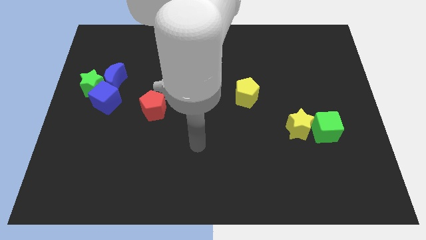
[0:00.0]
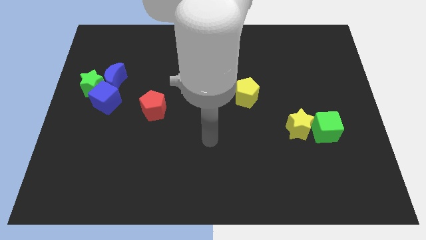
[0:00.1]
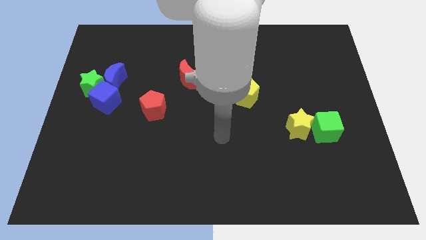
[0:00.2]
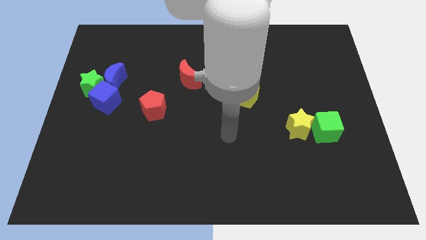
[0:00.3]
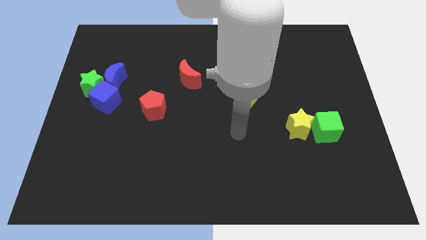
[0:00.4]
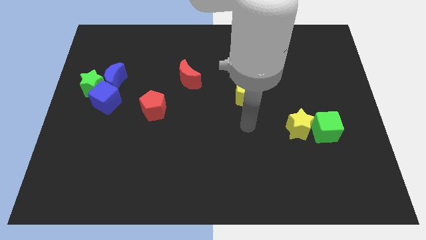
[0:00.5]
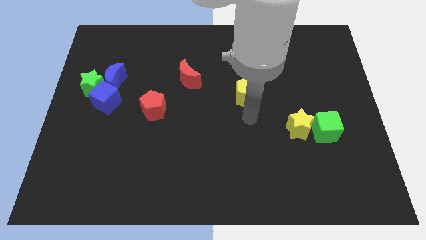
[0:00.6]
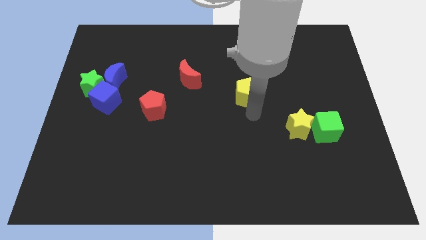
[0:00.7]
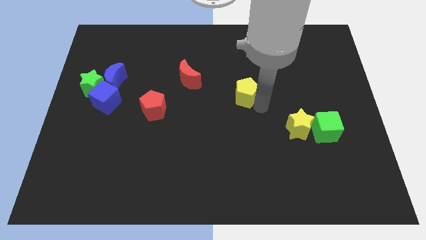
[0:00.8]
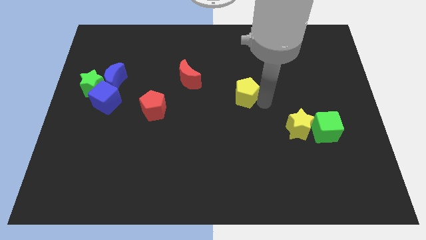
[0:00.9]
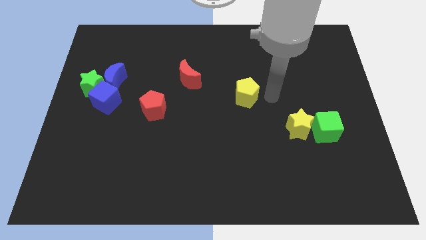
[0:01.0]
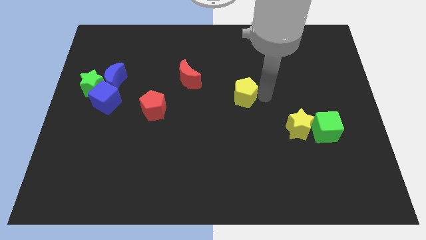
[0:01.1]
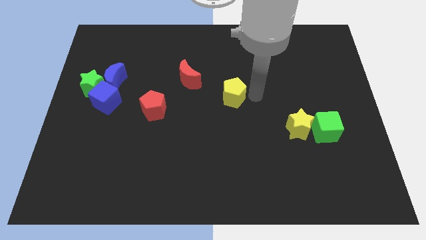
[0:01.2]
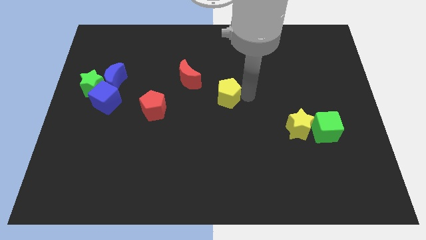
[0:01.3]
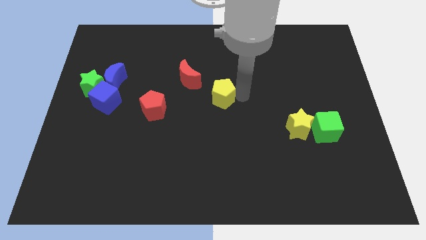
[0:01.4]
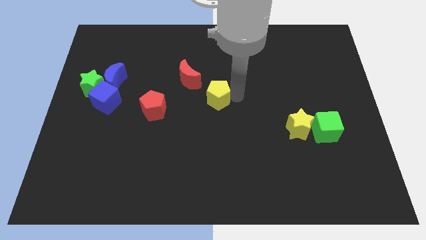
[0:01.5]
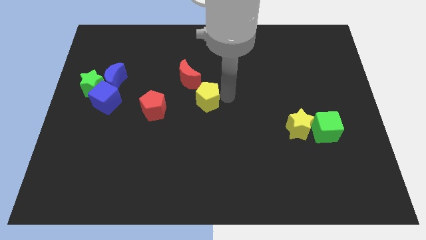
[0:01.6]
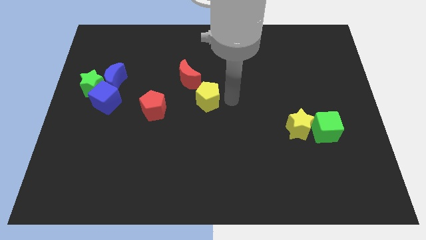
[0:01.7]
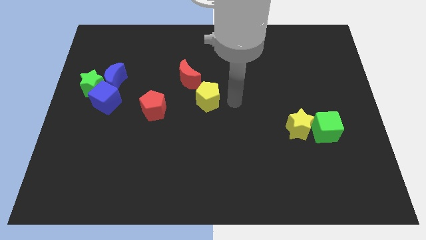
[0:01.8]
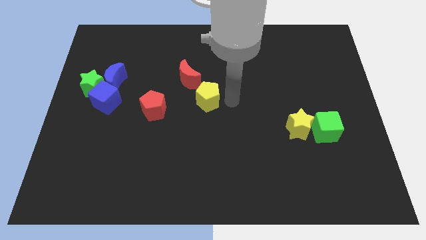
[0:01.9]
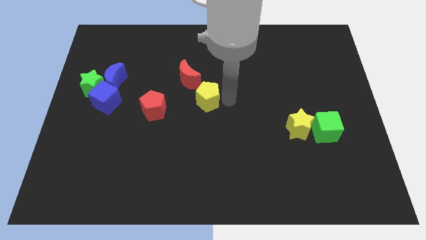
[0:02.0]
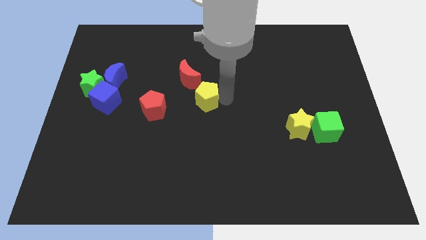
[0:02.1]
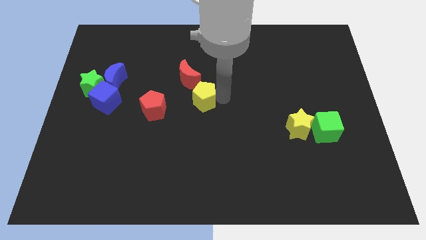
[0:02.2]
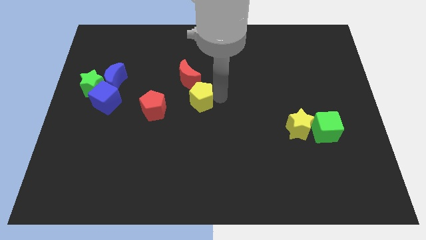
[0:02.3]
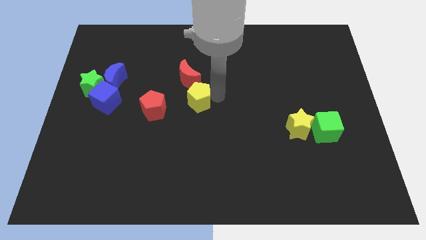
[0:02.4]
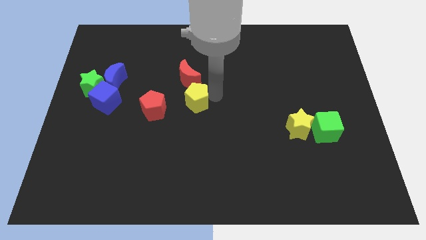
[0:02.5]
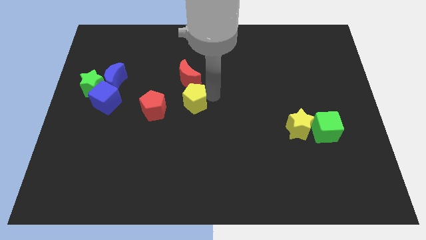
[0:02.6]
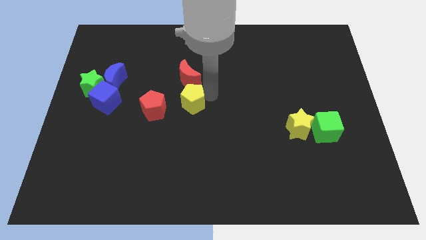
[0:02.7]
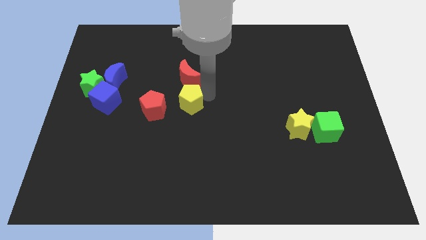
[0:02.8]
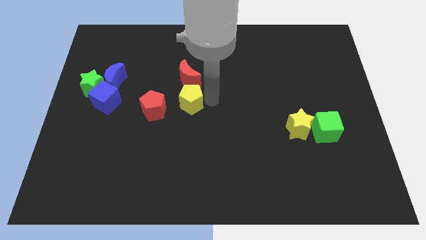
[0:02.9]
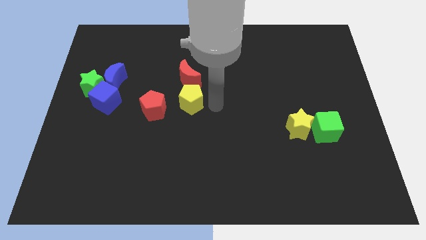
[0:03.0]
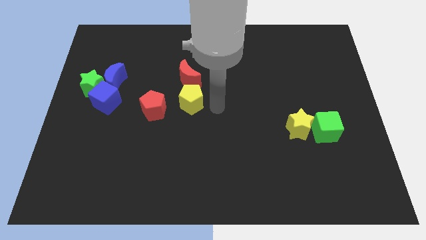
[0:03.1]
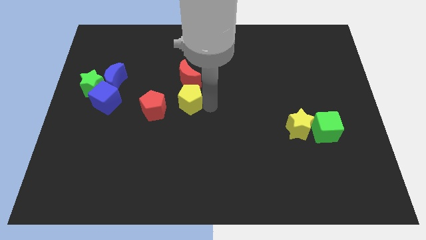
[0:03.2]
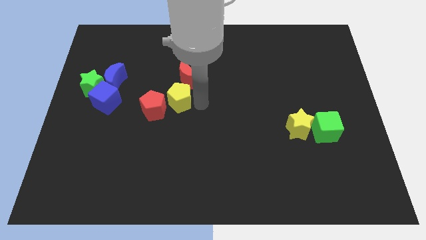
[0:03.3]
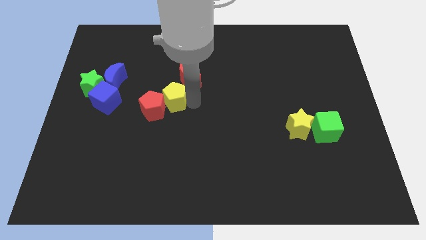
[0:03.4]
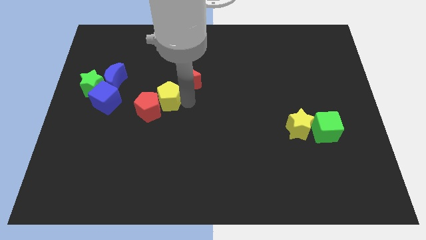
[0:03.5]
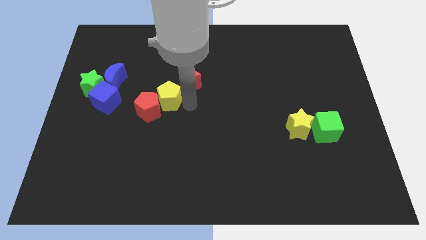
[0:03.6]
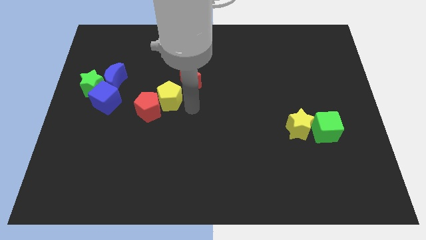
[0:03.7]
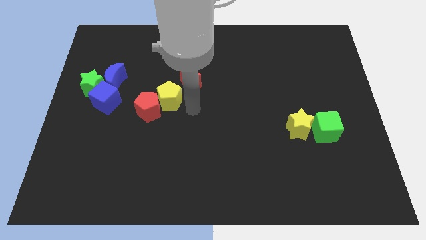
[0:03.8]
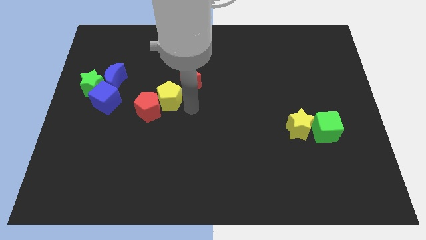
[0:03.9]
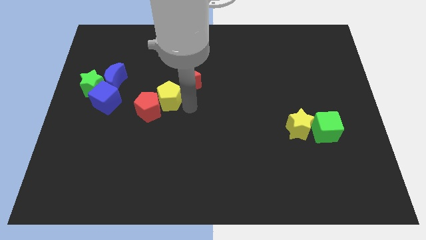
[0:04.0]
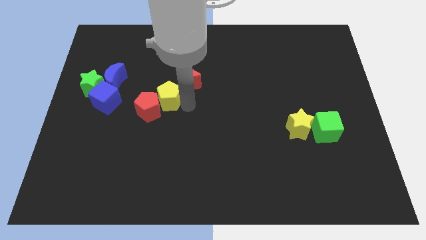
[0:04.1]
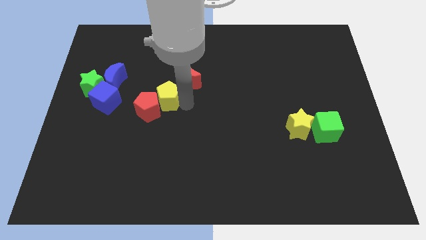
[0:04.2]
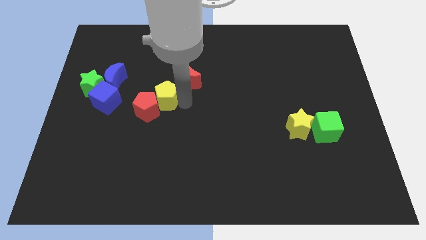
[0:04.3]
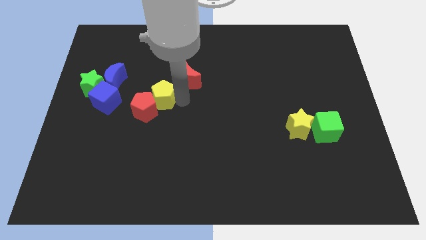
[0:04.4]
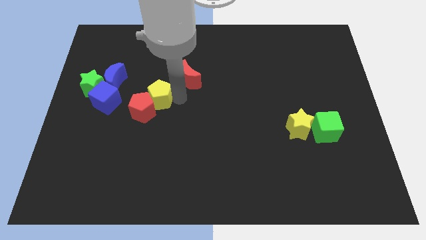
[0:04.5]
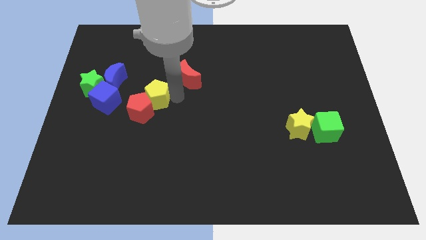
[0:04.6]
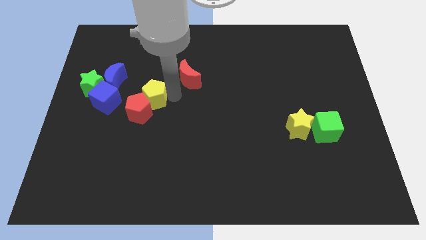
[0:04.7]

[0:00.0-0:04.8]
put the yellow pentagon just right of the green star

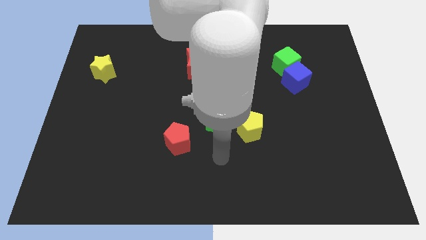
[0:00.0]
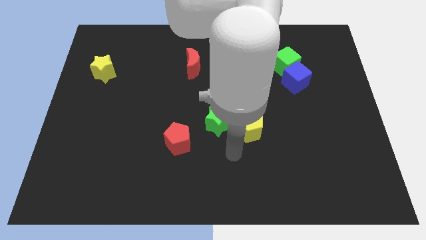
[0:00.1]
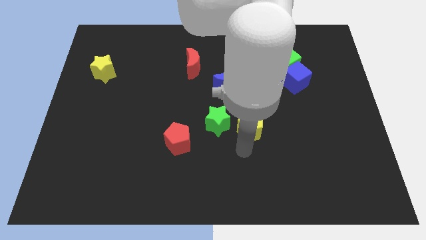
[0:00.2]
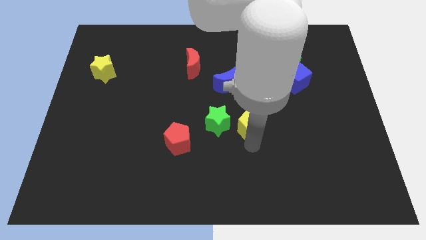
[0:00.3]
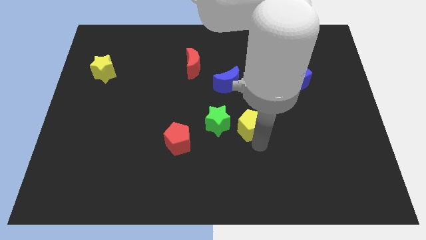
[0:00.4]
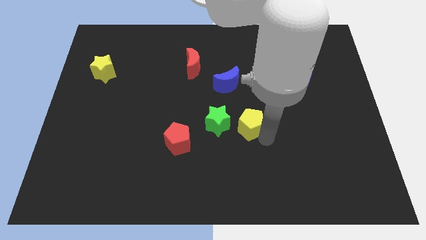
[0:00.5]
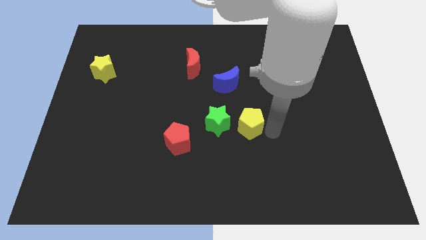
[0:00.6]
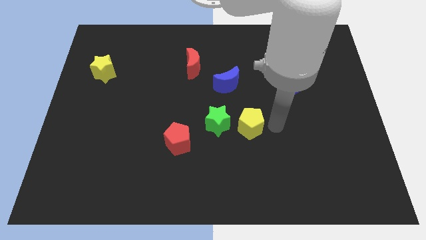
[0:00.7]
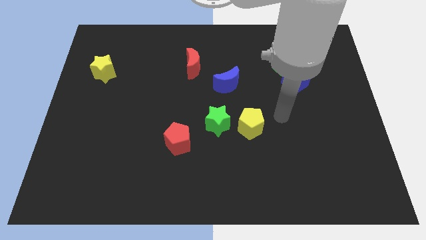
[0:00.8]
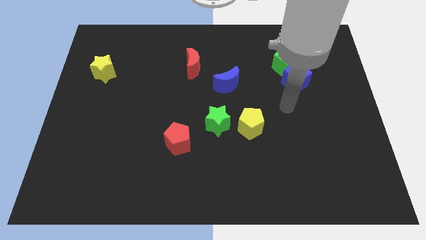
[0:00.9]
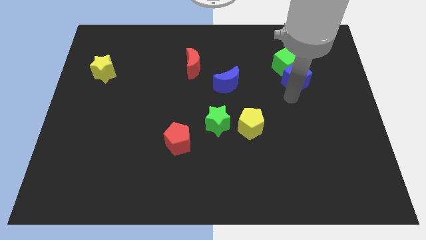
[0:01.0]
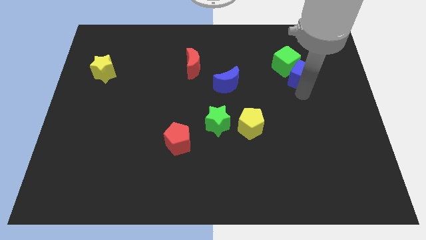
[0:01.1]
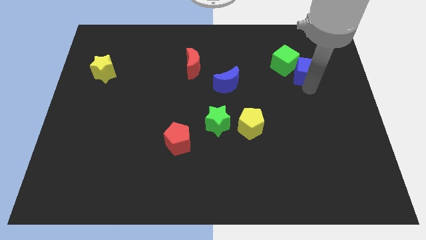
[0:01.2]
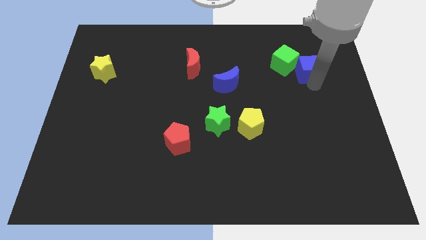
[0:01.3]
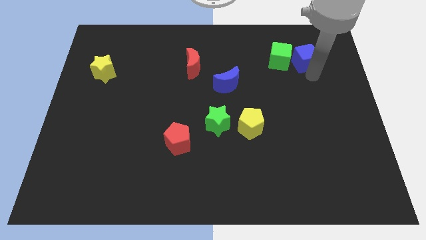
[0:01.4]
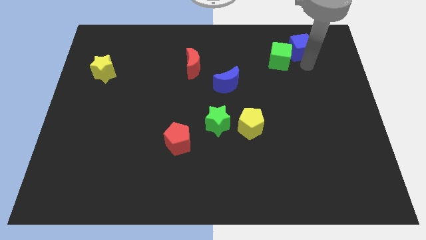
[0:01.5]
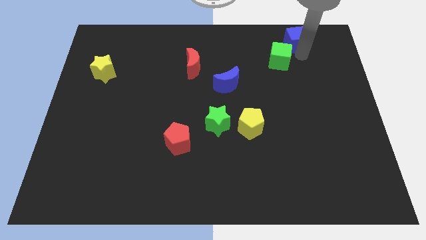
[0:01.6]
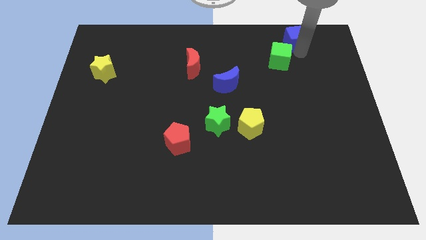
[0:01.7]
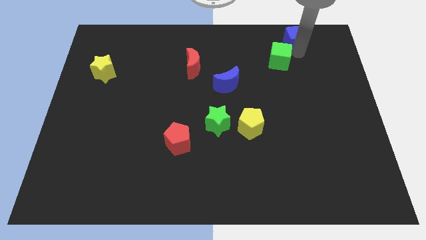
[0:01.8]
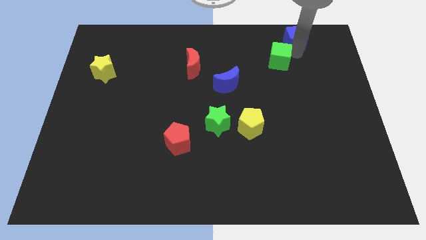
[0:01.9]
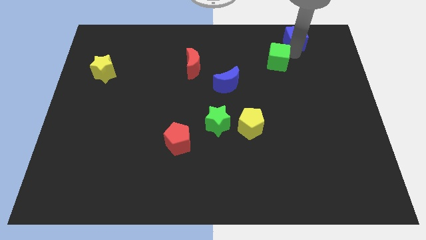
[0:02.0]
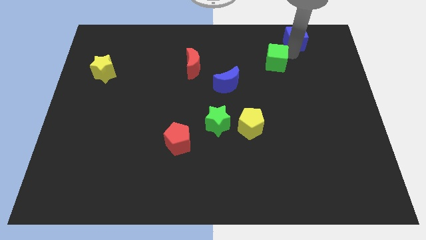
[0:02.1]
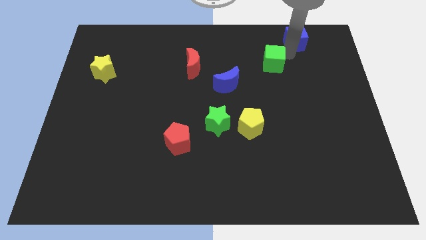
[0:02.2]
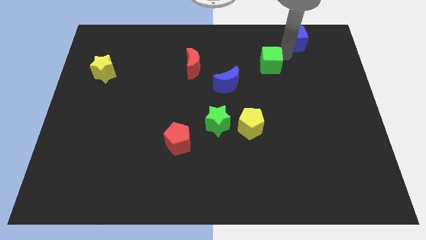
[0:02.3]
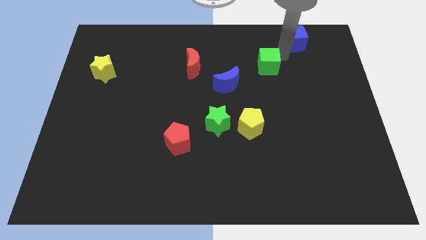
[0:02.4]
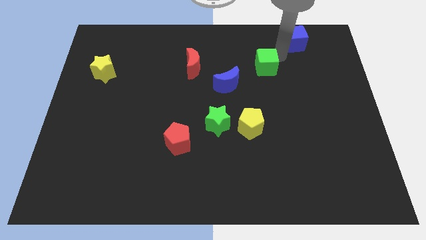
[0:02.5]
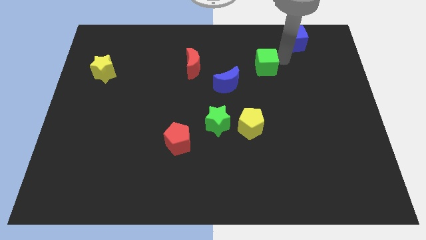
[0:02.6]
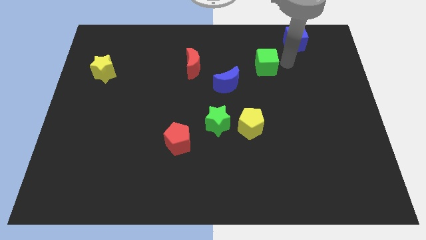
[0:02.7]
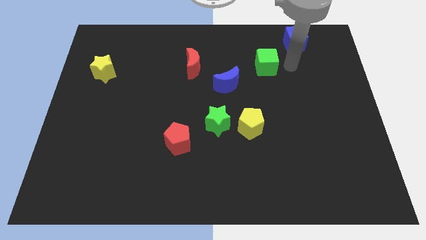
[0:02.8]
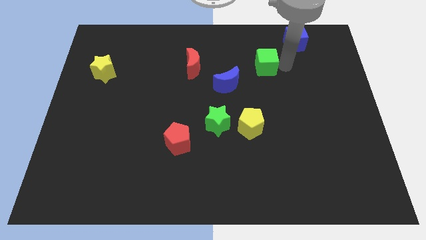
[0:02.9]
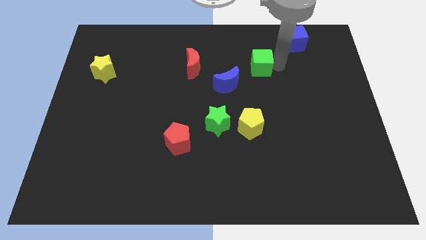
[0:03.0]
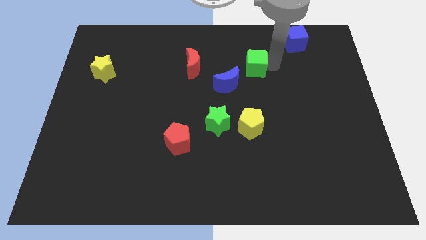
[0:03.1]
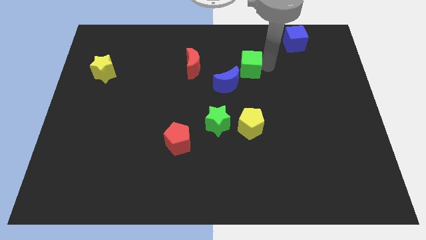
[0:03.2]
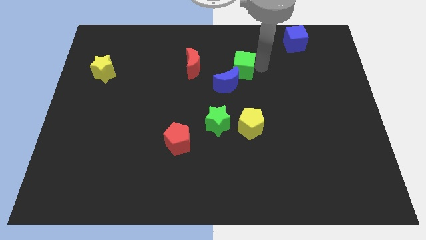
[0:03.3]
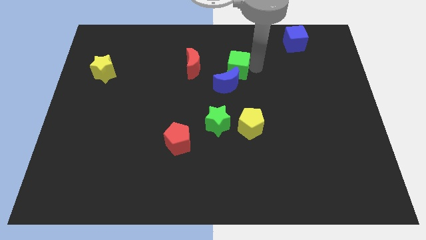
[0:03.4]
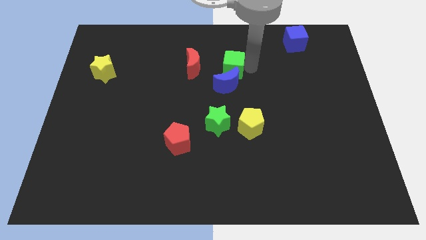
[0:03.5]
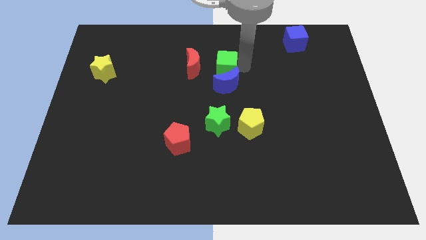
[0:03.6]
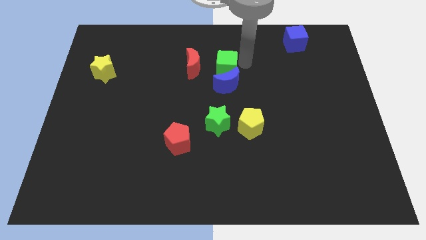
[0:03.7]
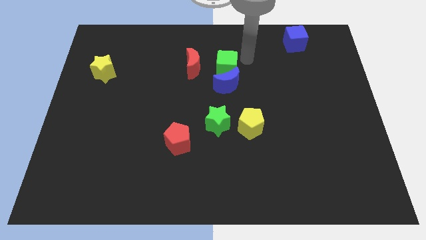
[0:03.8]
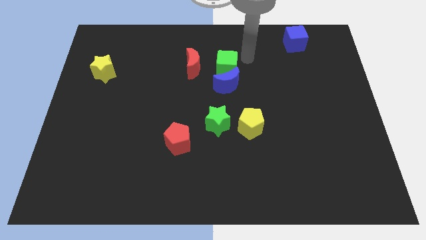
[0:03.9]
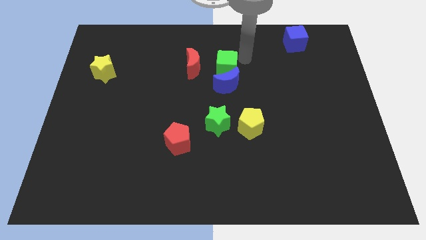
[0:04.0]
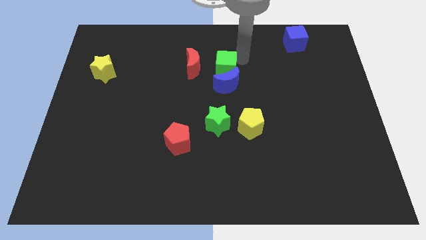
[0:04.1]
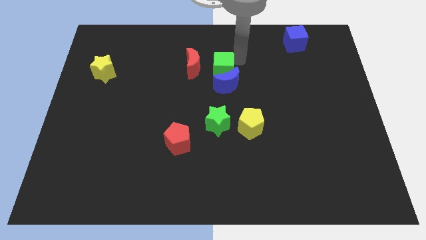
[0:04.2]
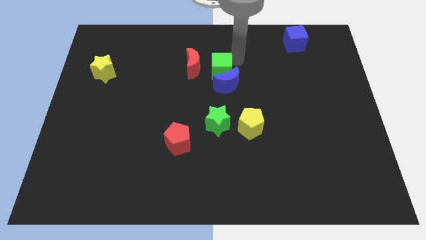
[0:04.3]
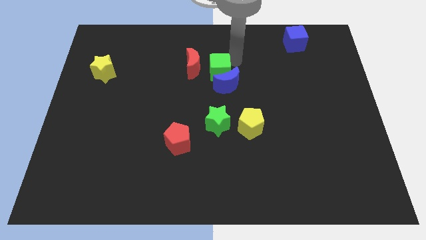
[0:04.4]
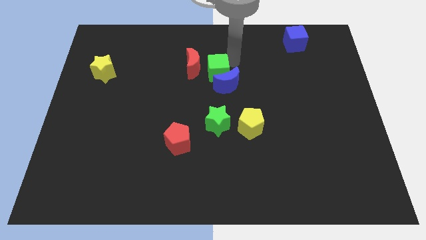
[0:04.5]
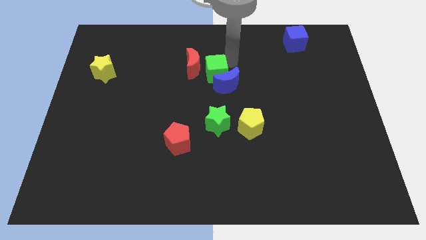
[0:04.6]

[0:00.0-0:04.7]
put the green cube to the left side of the blue moon
